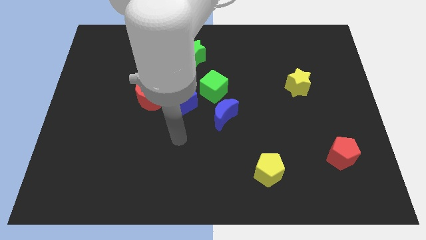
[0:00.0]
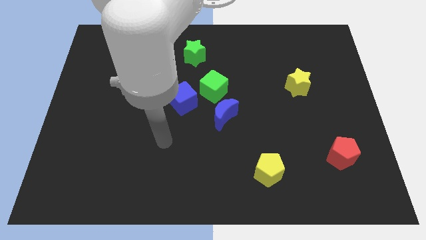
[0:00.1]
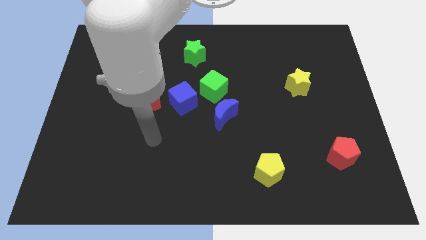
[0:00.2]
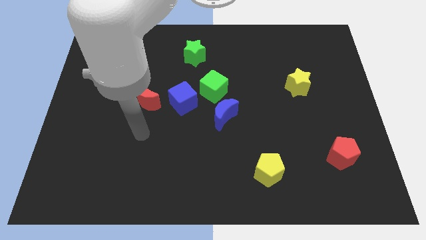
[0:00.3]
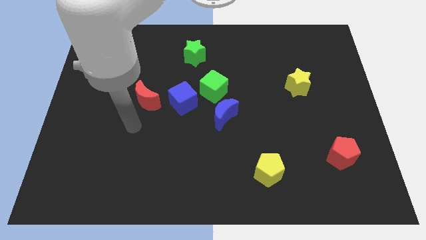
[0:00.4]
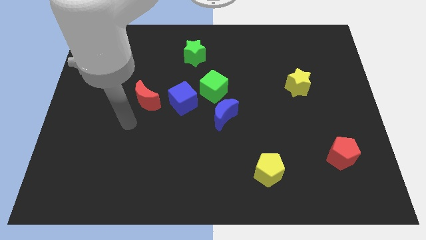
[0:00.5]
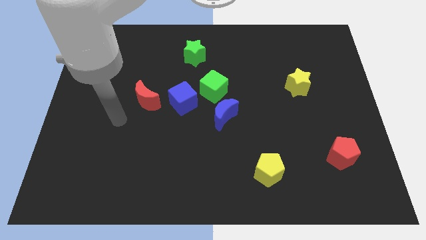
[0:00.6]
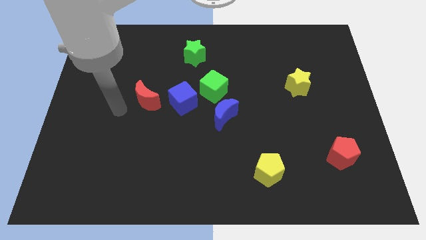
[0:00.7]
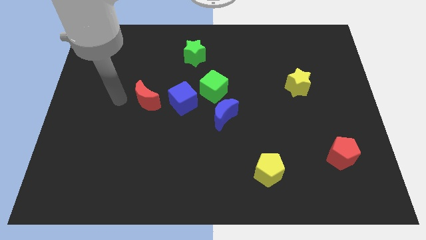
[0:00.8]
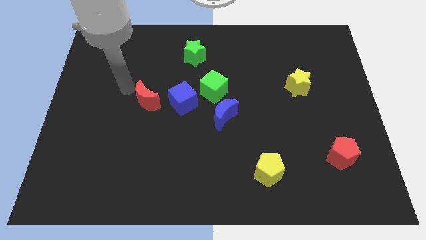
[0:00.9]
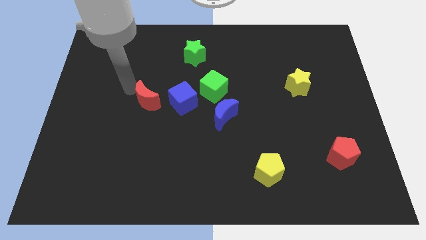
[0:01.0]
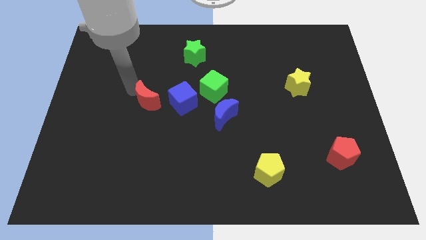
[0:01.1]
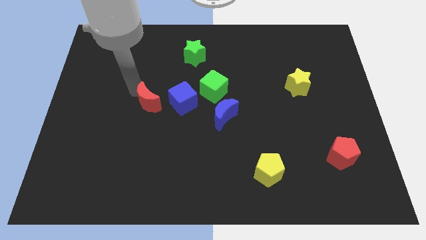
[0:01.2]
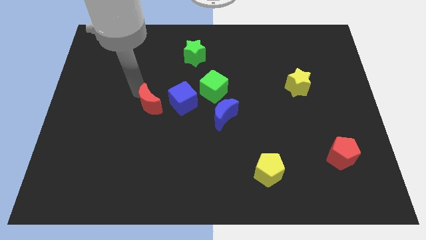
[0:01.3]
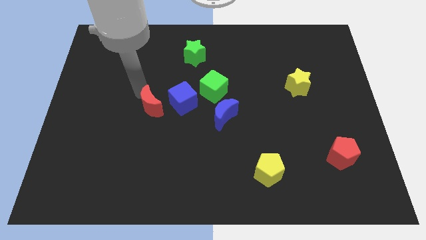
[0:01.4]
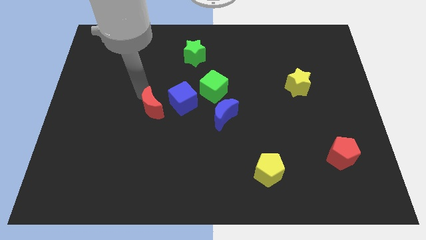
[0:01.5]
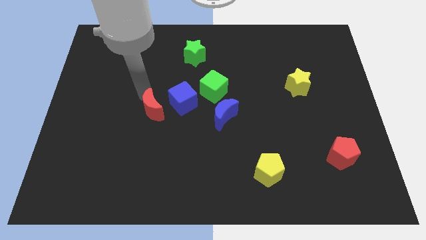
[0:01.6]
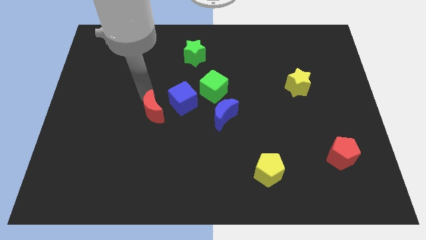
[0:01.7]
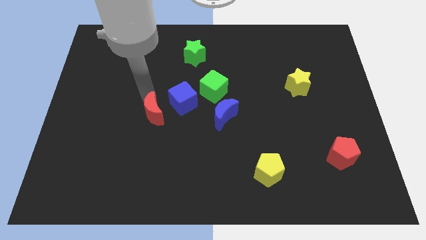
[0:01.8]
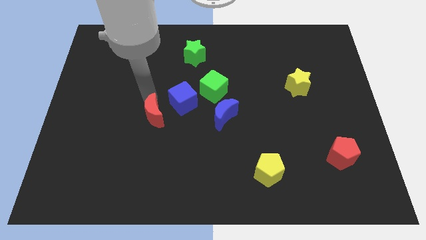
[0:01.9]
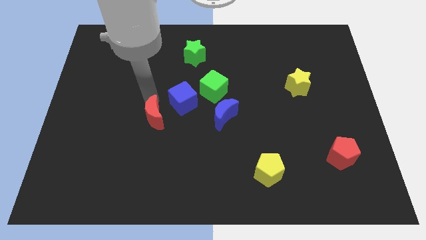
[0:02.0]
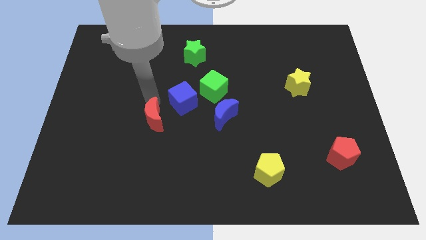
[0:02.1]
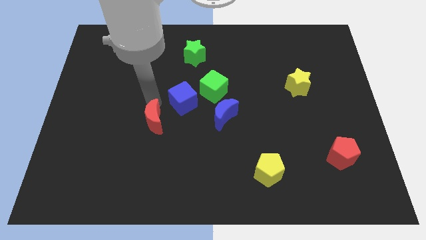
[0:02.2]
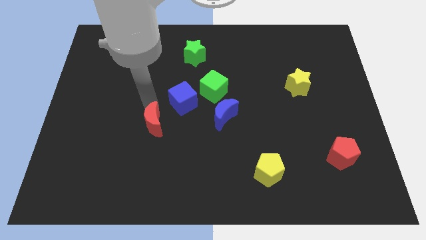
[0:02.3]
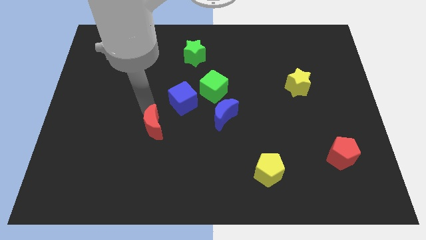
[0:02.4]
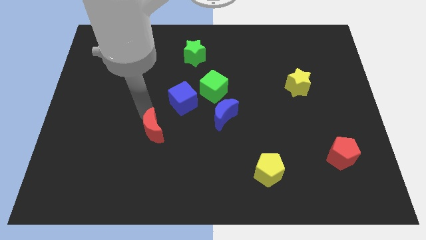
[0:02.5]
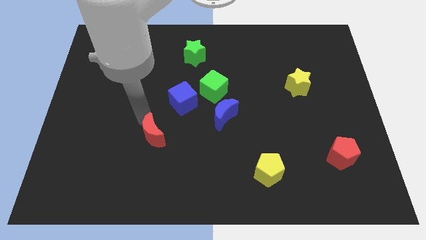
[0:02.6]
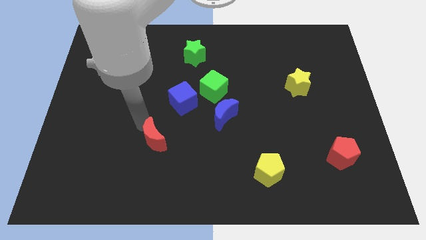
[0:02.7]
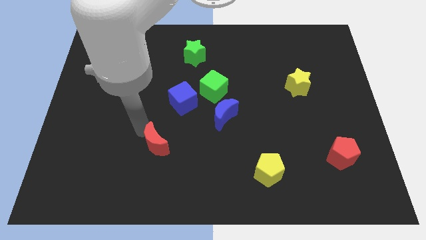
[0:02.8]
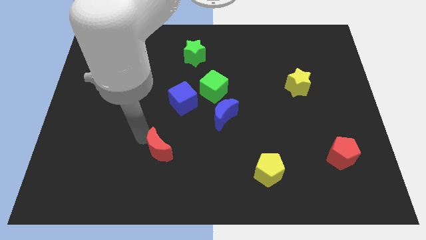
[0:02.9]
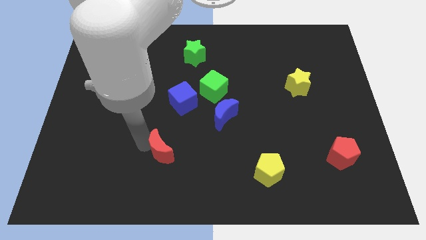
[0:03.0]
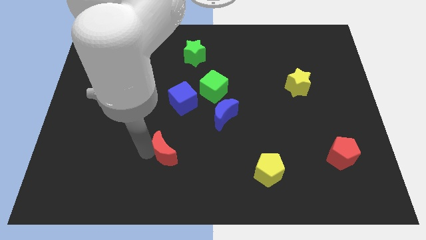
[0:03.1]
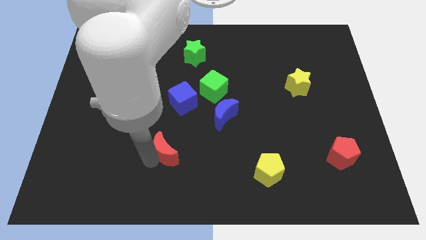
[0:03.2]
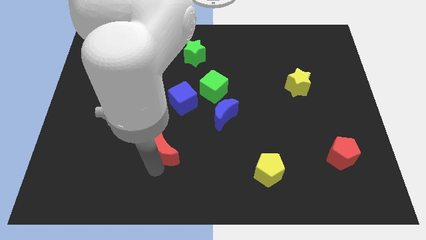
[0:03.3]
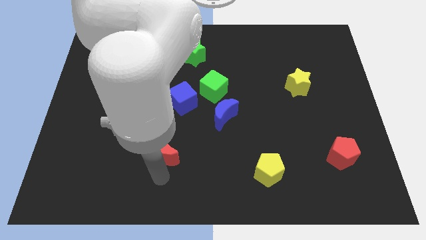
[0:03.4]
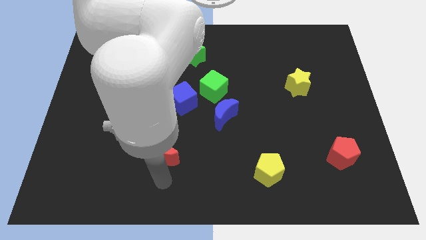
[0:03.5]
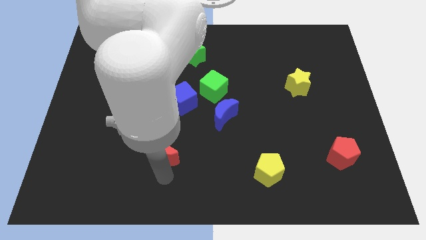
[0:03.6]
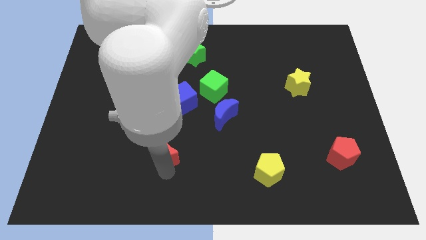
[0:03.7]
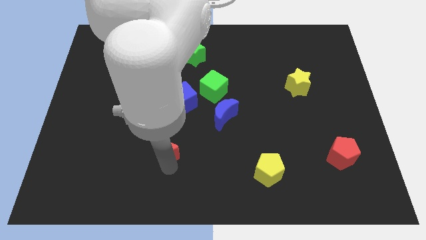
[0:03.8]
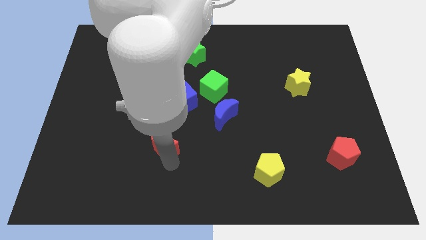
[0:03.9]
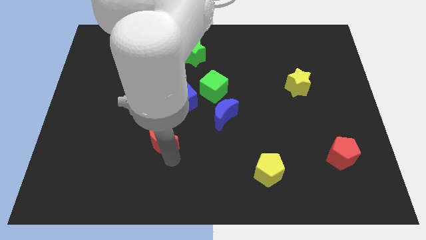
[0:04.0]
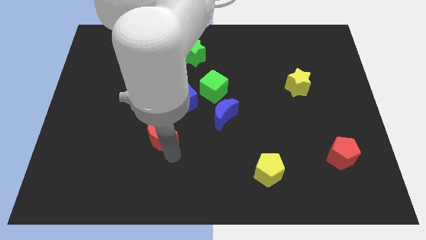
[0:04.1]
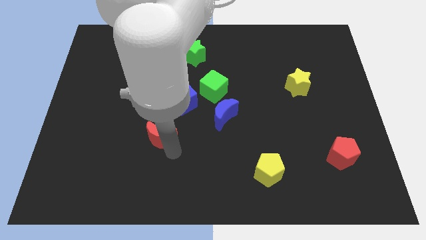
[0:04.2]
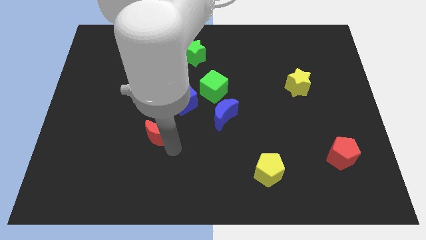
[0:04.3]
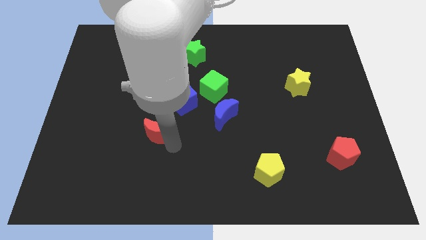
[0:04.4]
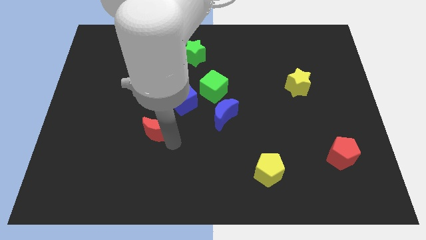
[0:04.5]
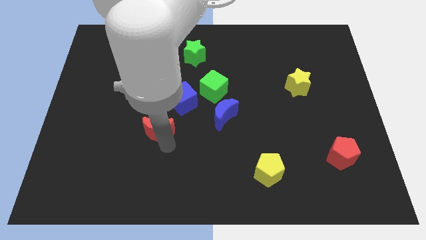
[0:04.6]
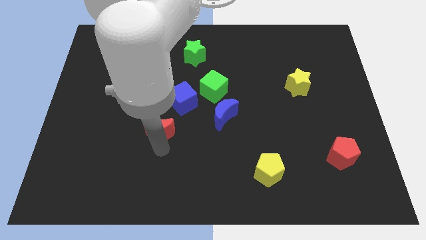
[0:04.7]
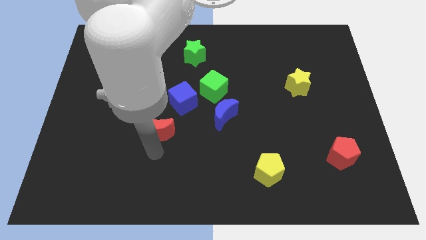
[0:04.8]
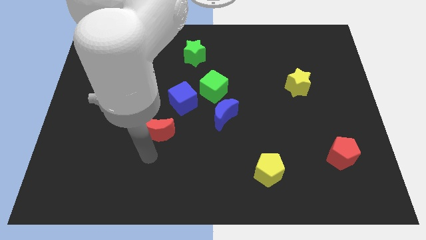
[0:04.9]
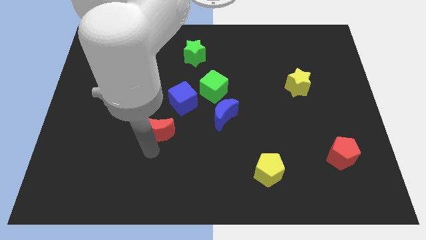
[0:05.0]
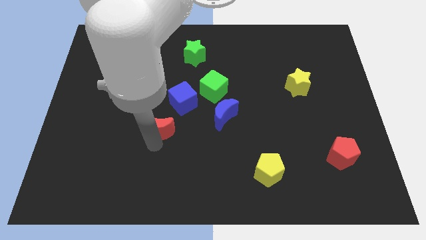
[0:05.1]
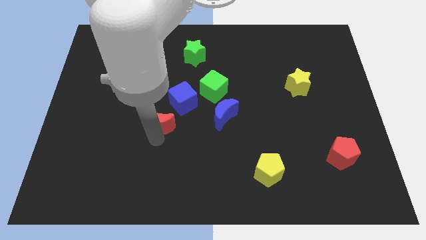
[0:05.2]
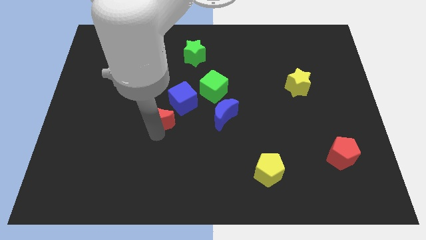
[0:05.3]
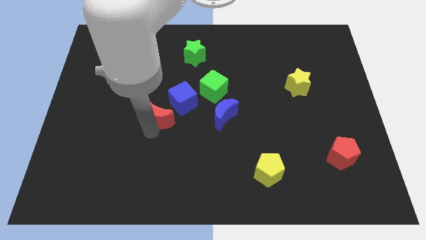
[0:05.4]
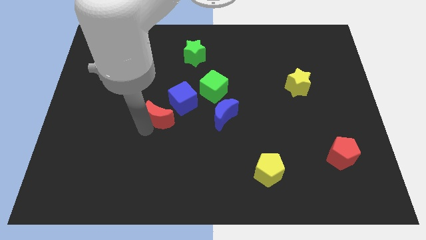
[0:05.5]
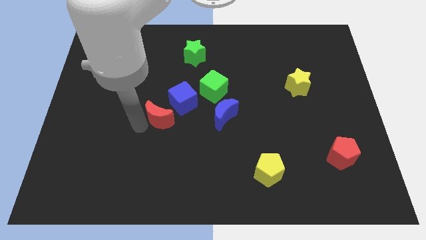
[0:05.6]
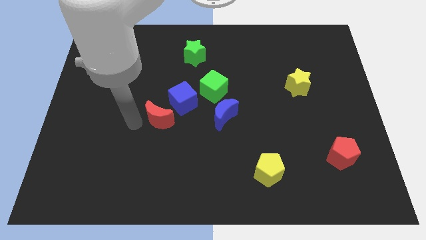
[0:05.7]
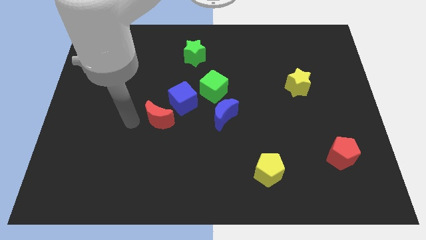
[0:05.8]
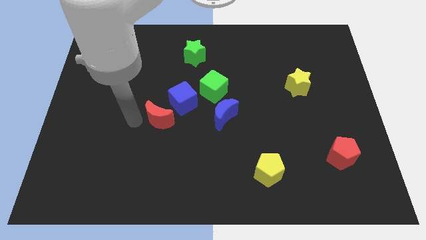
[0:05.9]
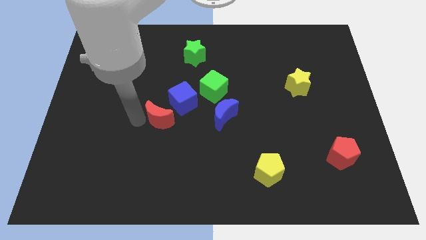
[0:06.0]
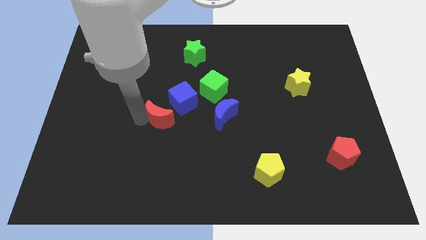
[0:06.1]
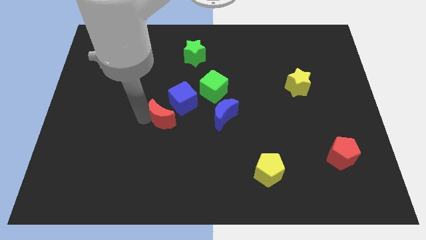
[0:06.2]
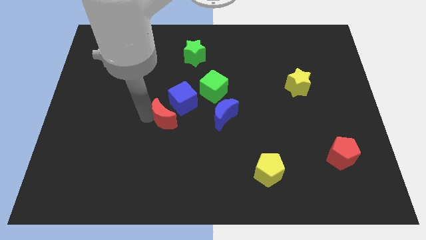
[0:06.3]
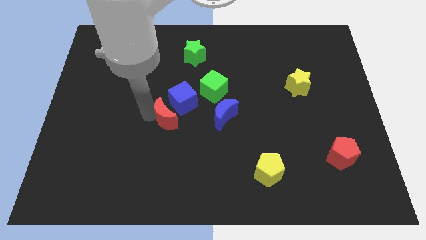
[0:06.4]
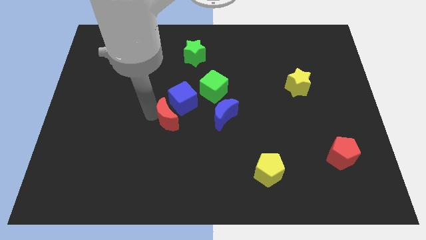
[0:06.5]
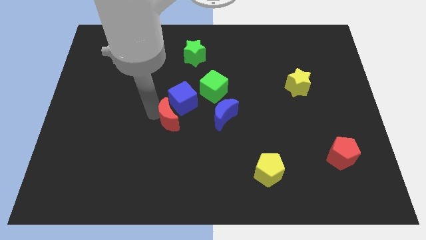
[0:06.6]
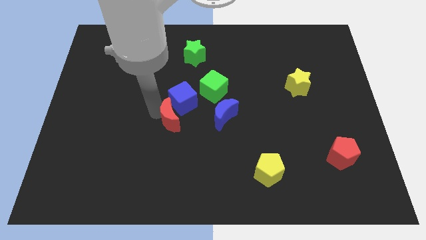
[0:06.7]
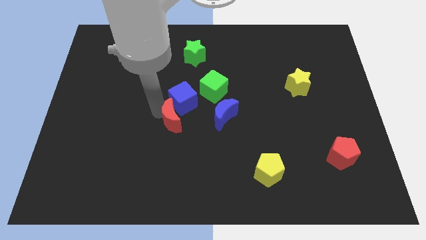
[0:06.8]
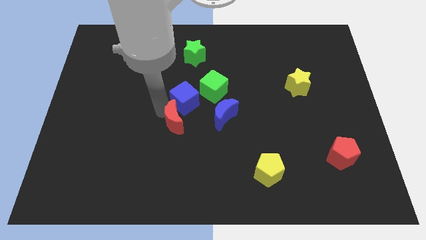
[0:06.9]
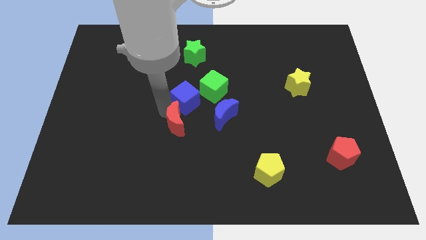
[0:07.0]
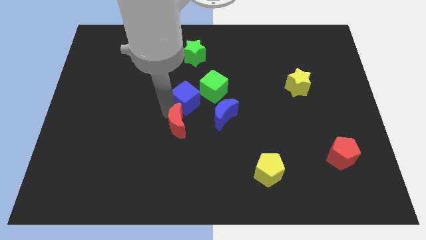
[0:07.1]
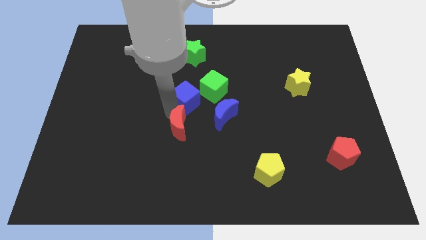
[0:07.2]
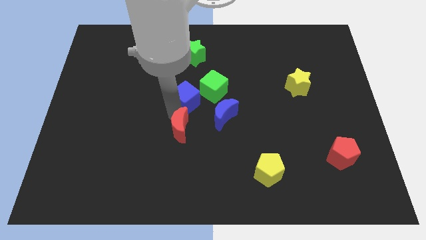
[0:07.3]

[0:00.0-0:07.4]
move the red moon to the bottom left side of the blue moon
